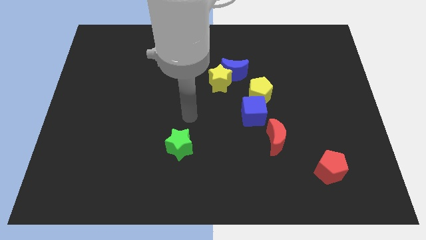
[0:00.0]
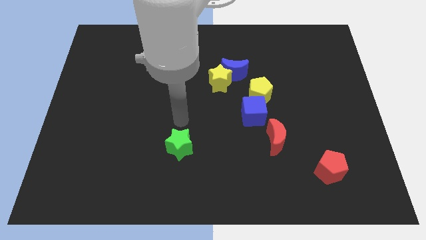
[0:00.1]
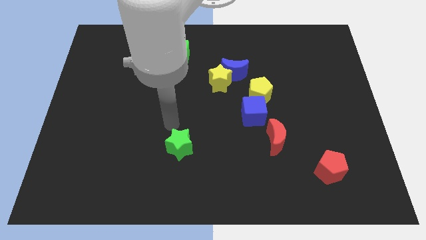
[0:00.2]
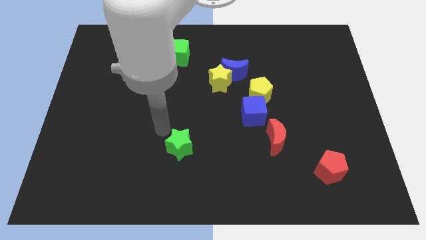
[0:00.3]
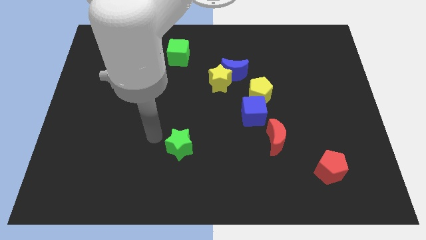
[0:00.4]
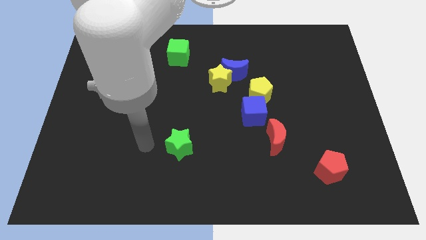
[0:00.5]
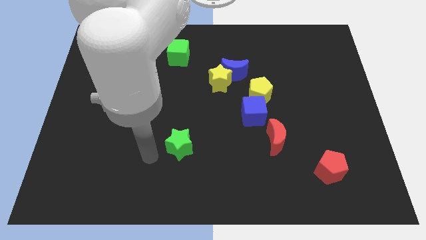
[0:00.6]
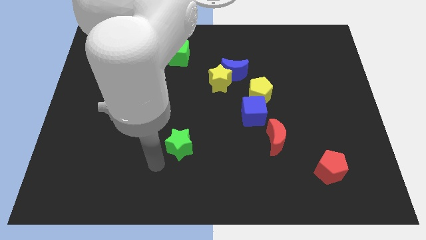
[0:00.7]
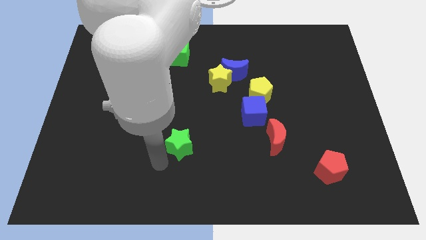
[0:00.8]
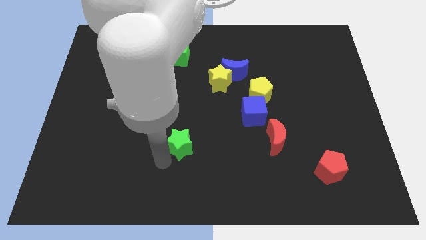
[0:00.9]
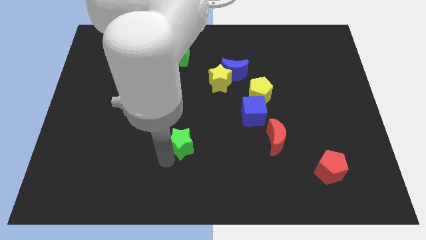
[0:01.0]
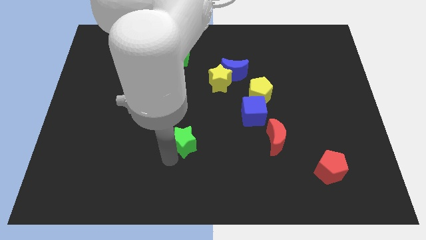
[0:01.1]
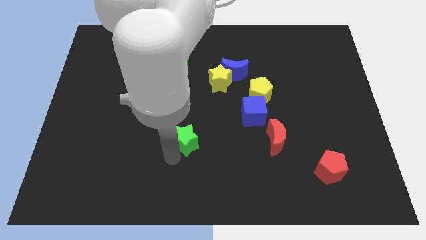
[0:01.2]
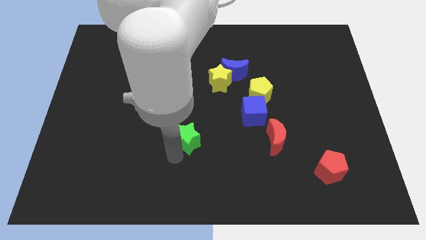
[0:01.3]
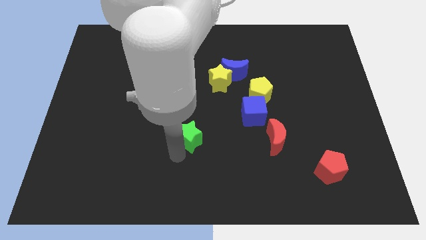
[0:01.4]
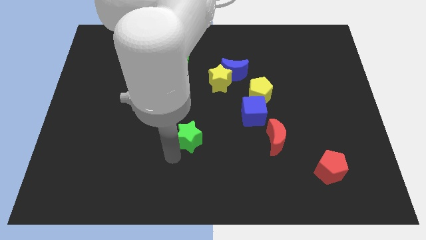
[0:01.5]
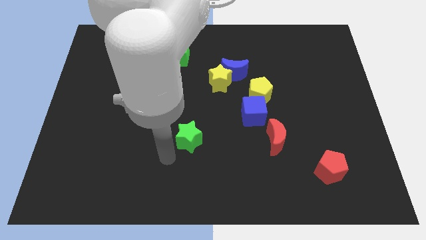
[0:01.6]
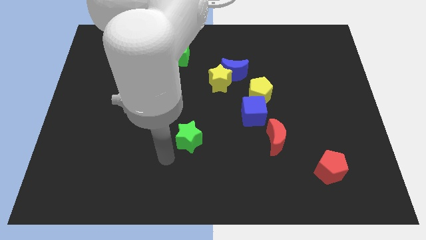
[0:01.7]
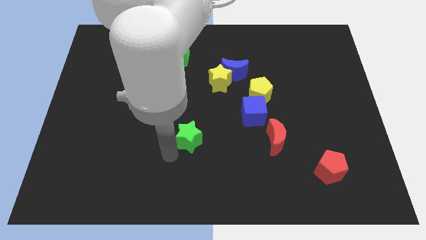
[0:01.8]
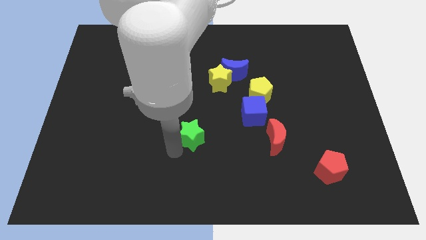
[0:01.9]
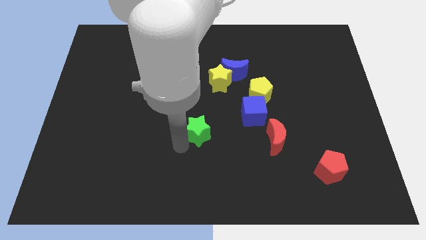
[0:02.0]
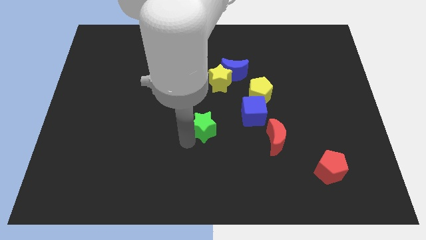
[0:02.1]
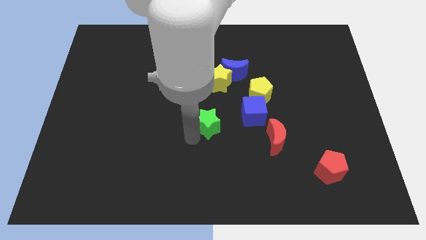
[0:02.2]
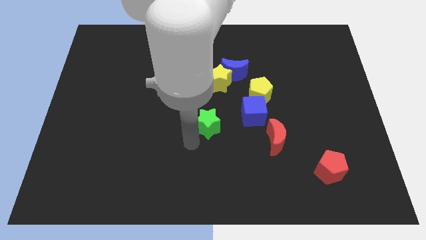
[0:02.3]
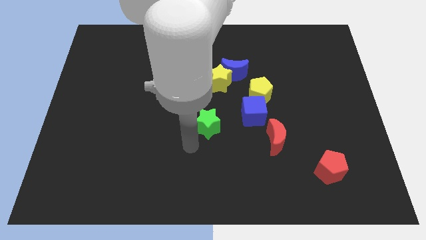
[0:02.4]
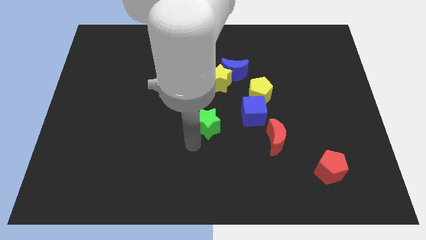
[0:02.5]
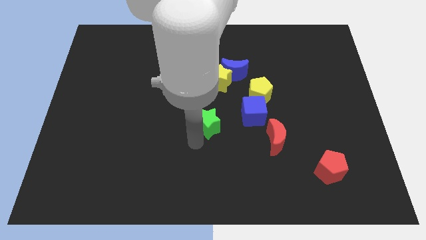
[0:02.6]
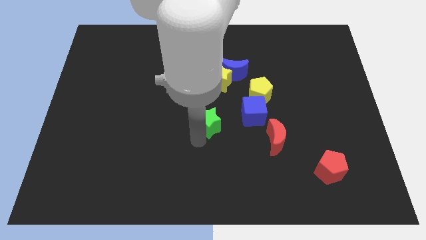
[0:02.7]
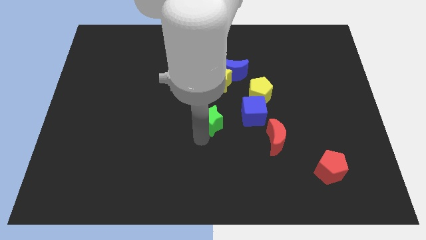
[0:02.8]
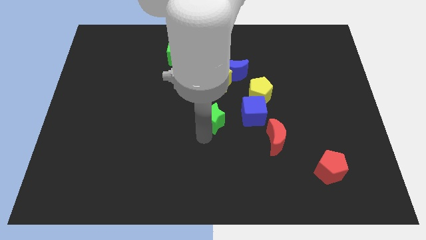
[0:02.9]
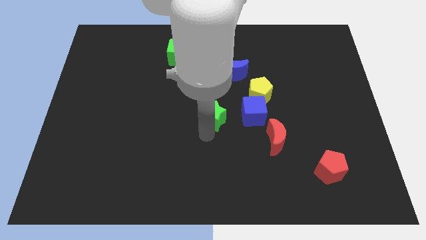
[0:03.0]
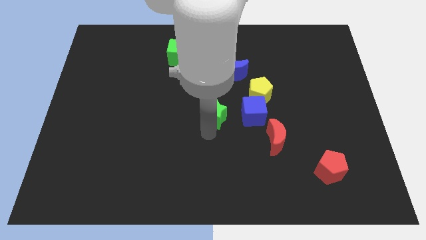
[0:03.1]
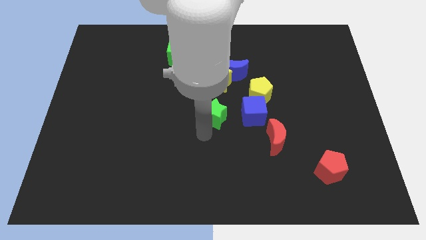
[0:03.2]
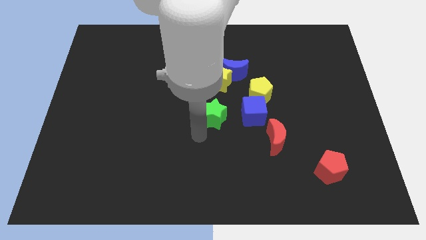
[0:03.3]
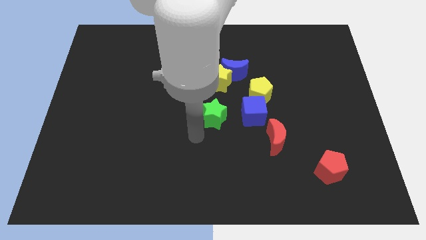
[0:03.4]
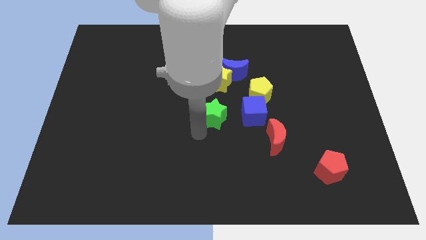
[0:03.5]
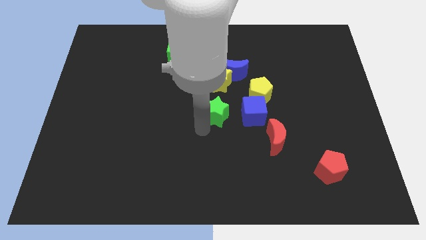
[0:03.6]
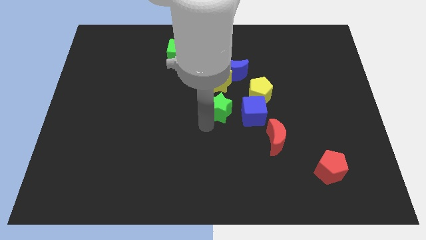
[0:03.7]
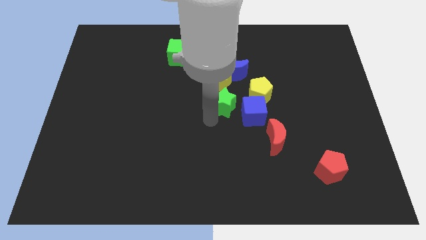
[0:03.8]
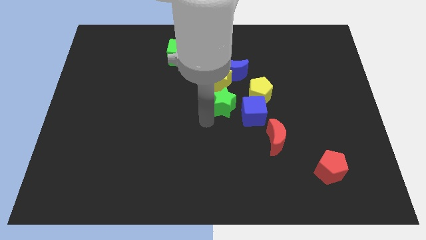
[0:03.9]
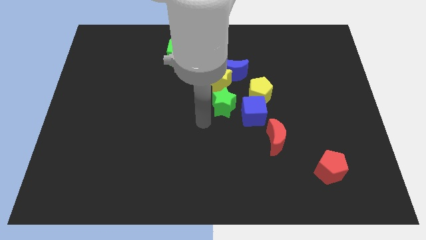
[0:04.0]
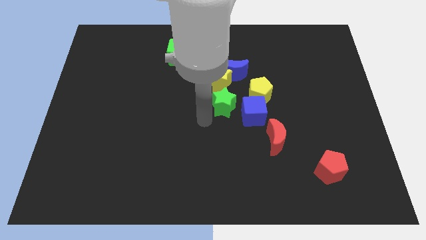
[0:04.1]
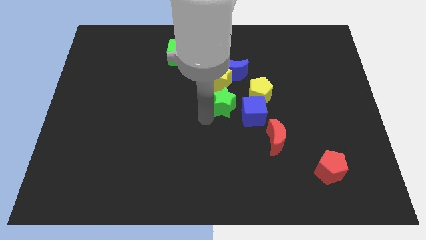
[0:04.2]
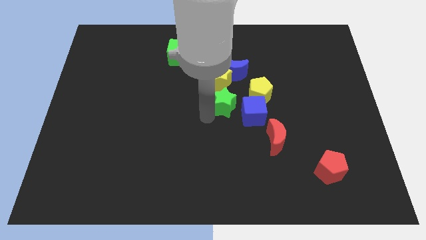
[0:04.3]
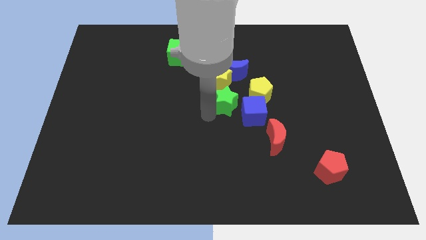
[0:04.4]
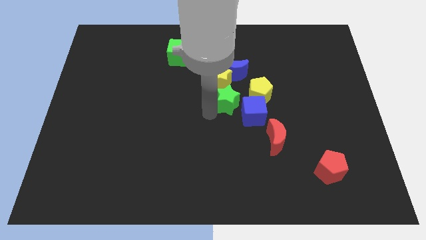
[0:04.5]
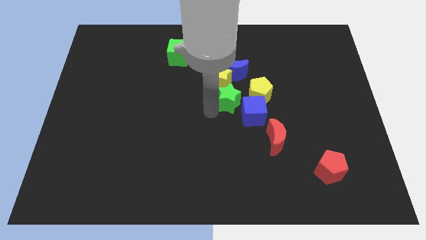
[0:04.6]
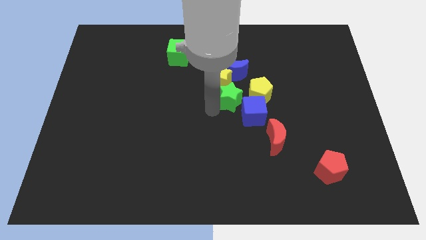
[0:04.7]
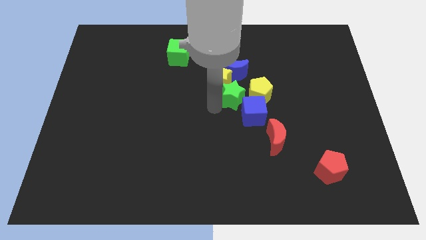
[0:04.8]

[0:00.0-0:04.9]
move the green star to the top side of the blue cube

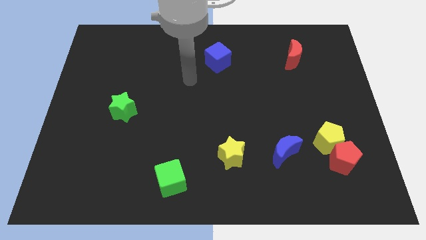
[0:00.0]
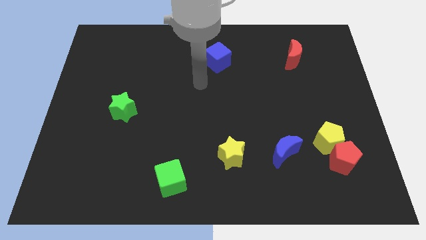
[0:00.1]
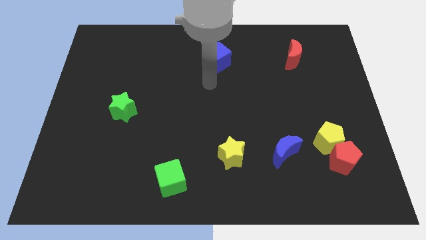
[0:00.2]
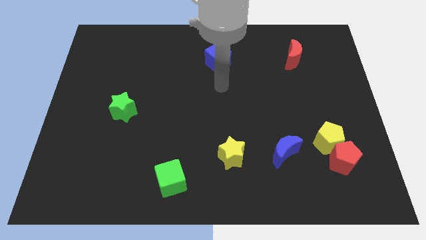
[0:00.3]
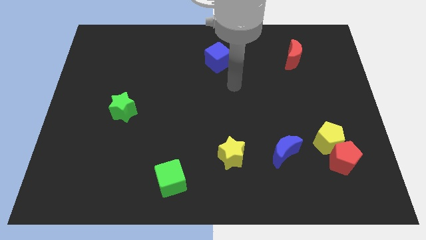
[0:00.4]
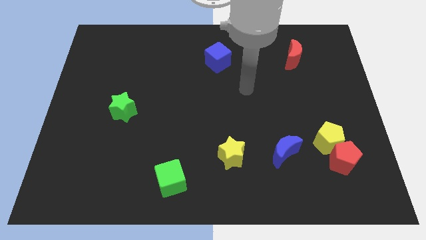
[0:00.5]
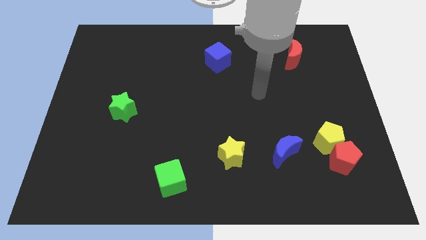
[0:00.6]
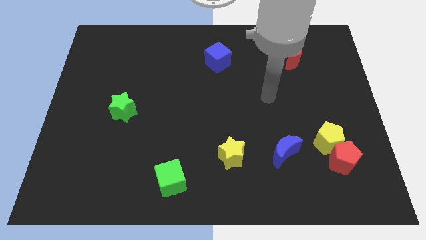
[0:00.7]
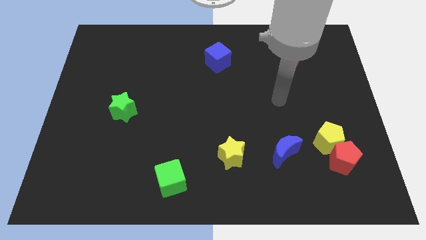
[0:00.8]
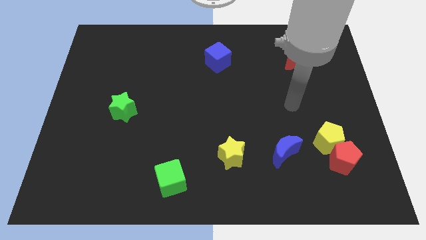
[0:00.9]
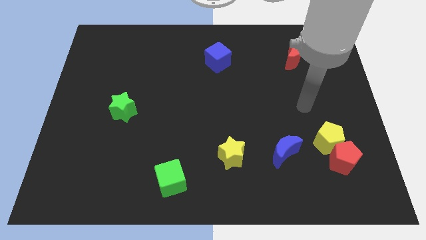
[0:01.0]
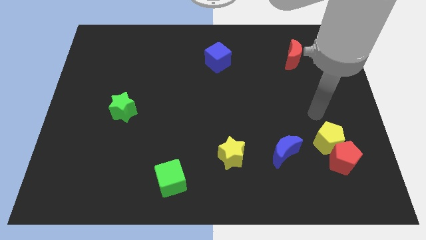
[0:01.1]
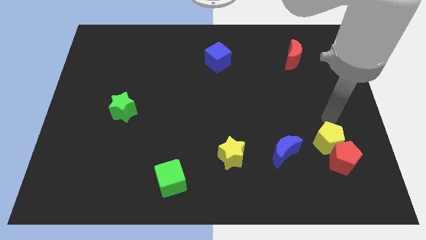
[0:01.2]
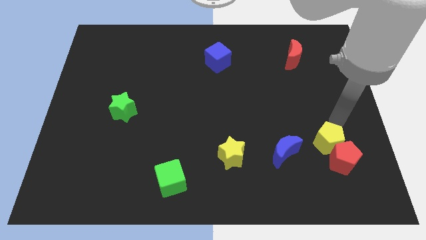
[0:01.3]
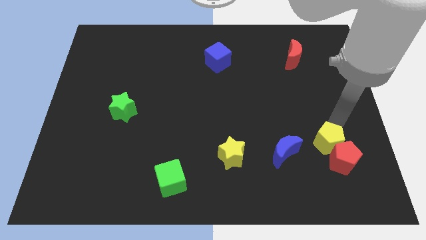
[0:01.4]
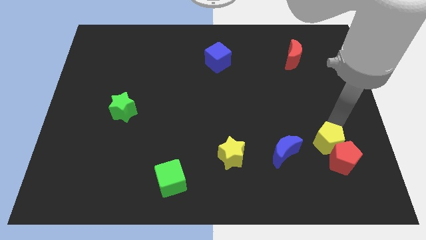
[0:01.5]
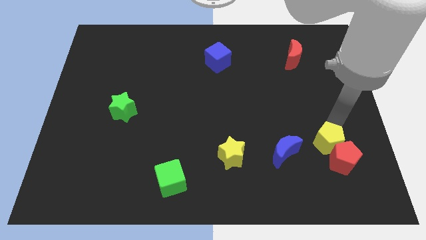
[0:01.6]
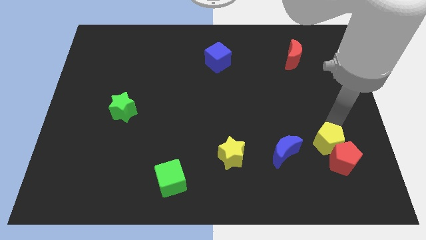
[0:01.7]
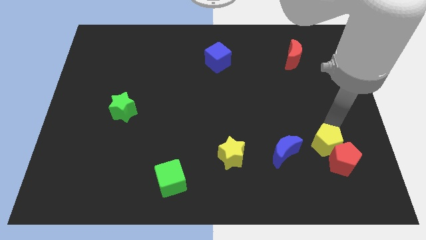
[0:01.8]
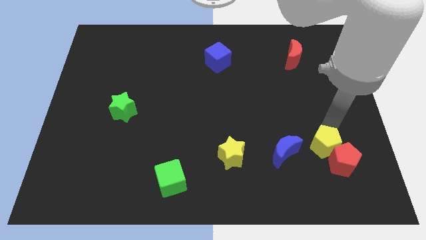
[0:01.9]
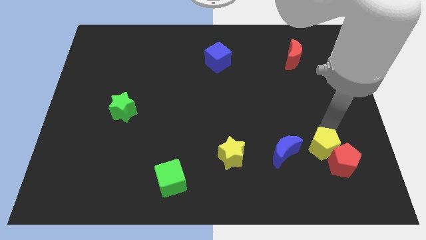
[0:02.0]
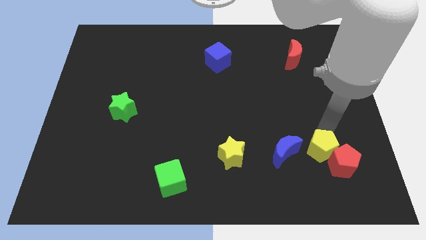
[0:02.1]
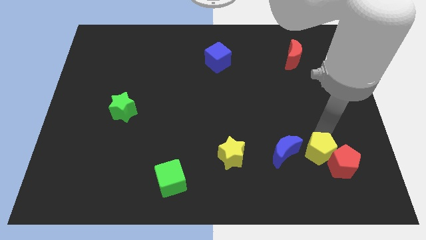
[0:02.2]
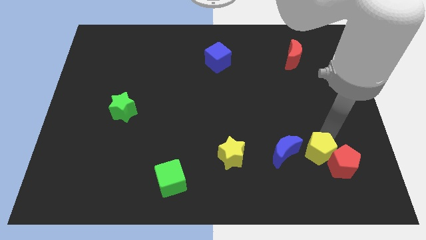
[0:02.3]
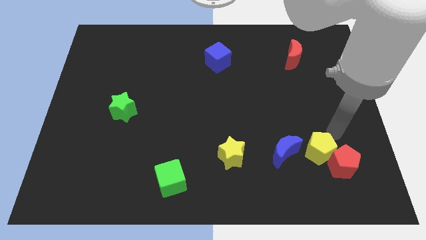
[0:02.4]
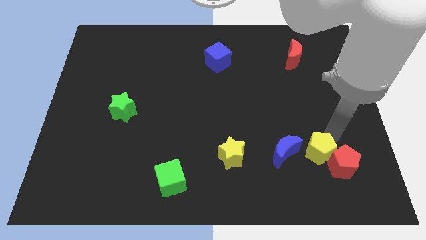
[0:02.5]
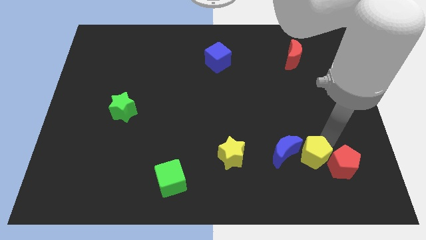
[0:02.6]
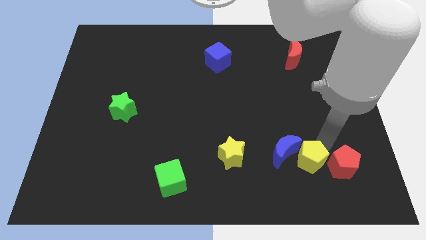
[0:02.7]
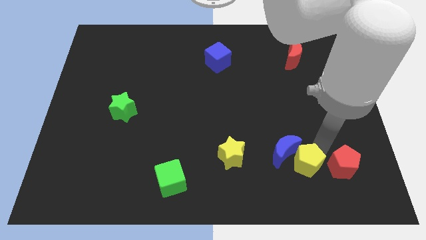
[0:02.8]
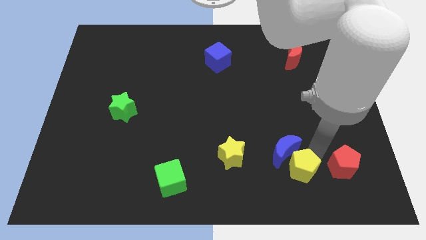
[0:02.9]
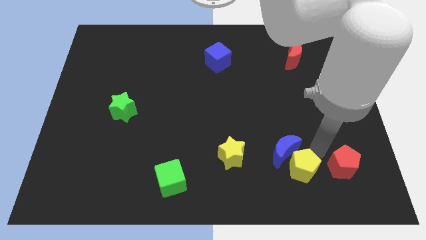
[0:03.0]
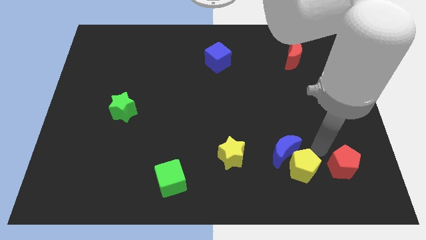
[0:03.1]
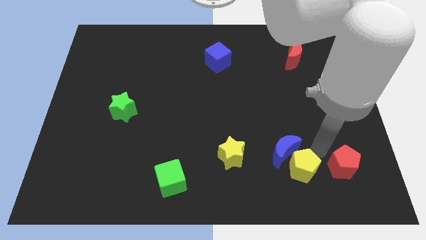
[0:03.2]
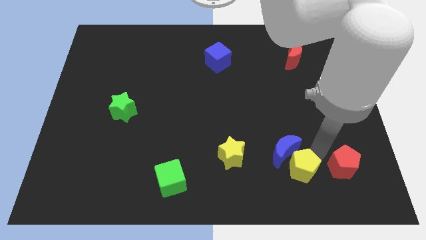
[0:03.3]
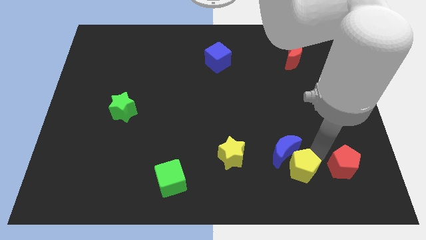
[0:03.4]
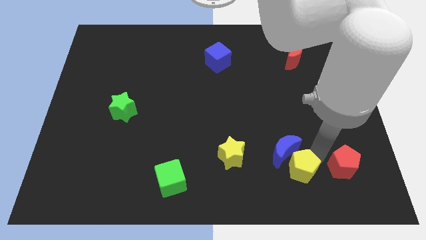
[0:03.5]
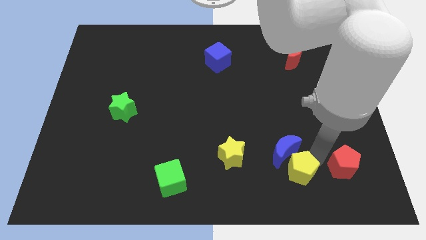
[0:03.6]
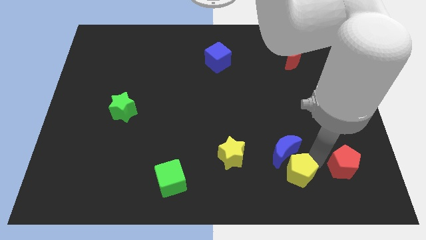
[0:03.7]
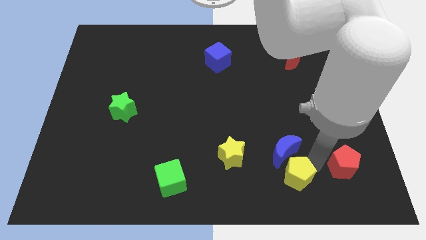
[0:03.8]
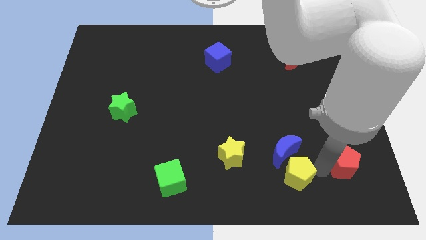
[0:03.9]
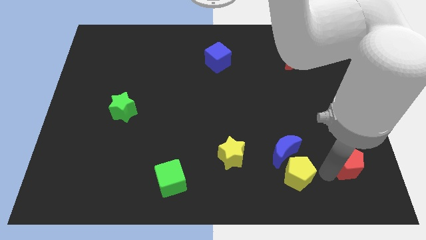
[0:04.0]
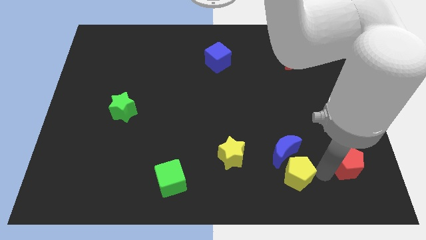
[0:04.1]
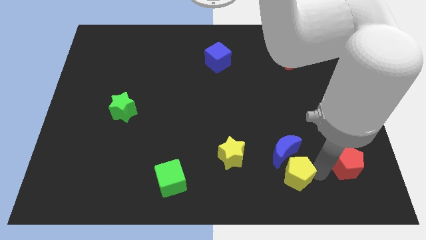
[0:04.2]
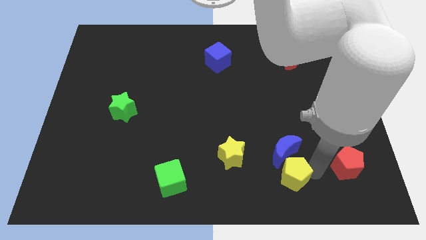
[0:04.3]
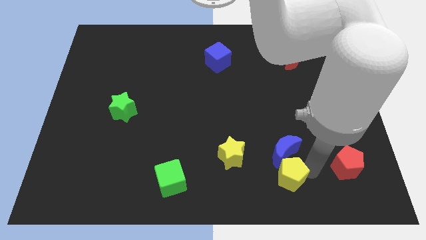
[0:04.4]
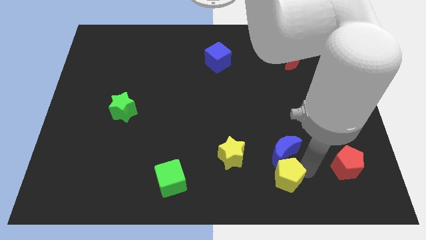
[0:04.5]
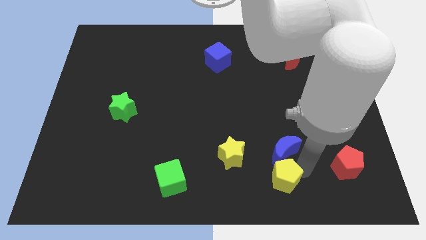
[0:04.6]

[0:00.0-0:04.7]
move the yellow pentagon to the bottom right side of the yellow star
